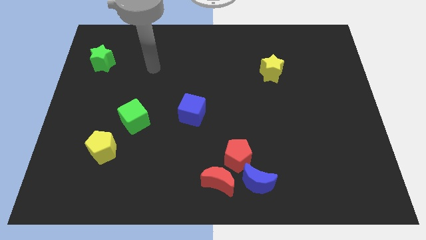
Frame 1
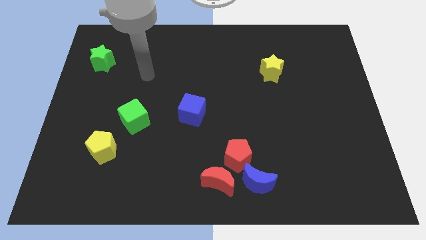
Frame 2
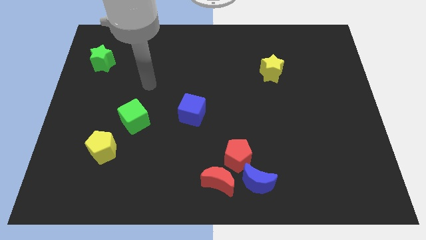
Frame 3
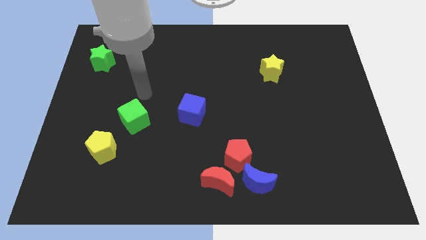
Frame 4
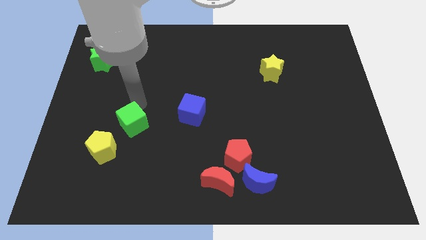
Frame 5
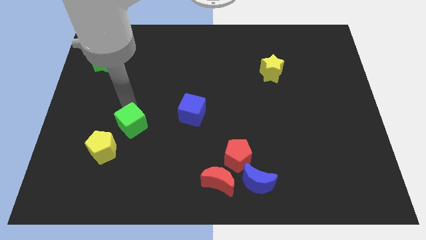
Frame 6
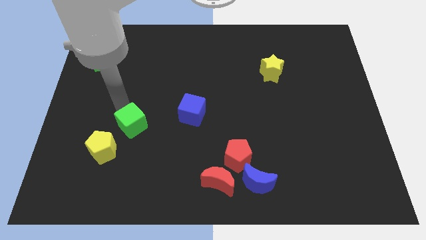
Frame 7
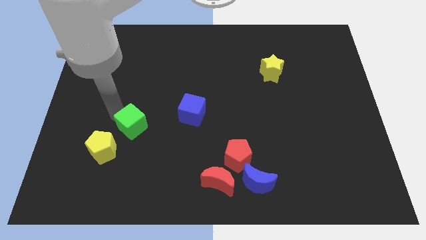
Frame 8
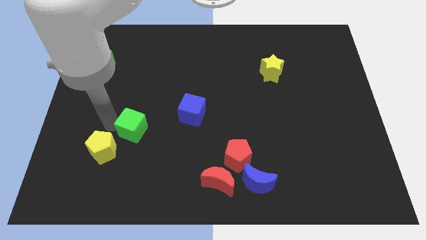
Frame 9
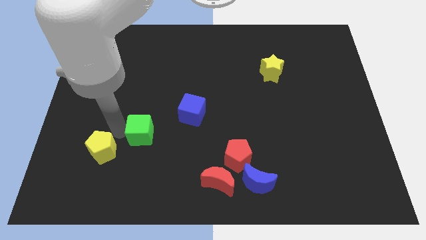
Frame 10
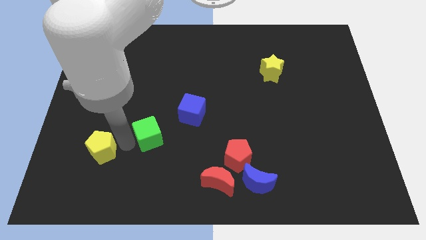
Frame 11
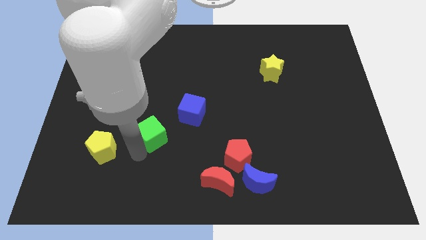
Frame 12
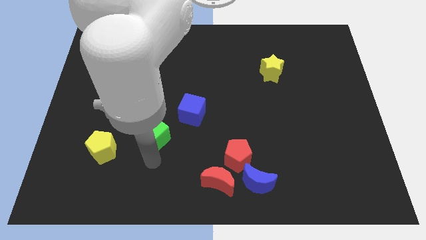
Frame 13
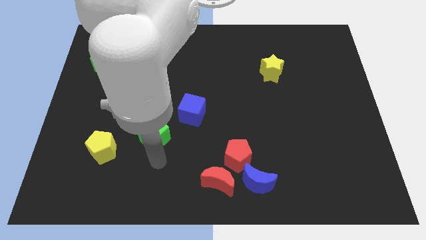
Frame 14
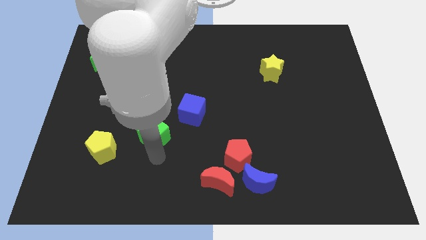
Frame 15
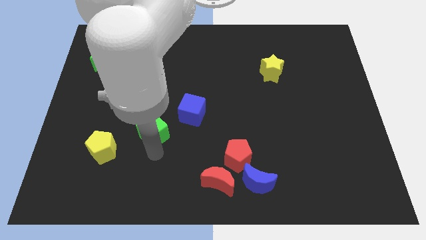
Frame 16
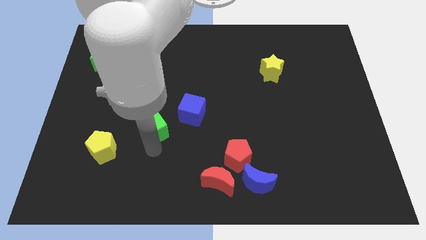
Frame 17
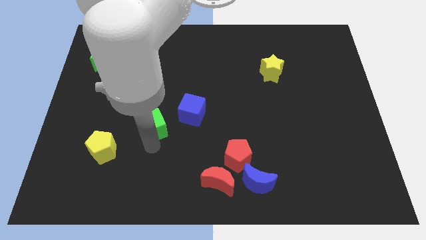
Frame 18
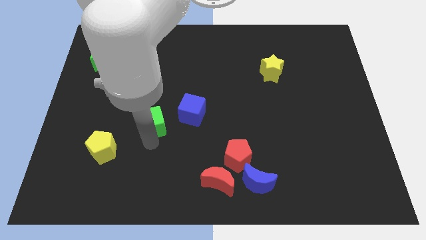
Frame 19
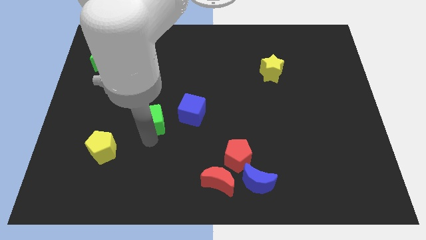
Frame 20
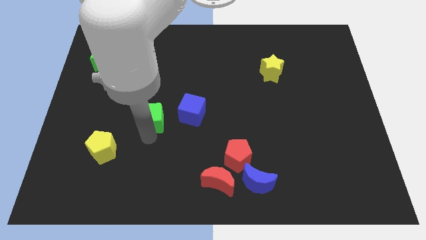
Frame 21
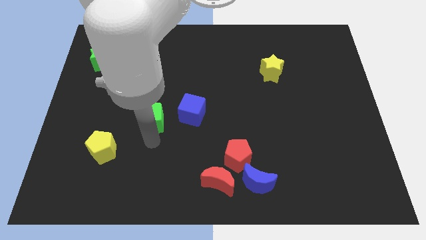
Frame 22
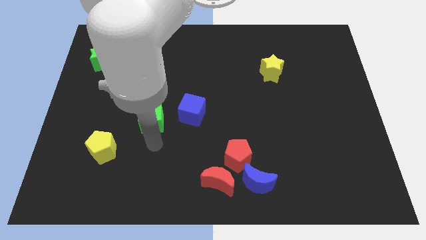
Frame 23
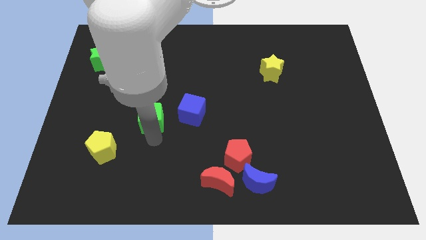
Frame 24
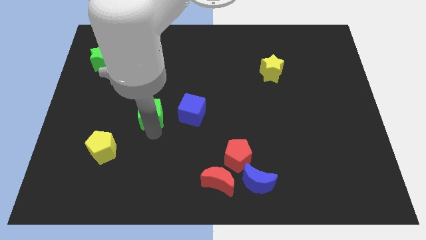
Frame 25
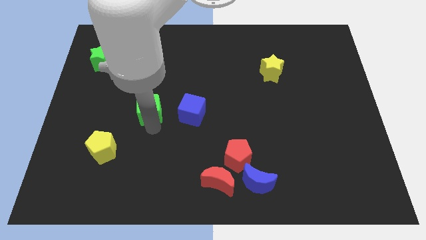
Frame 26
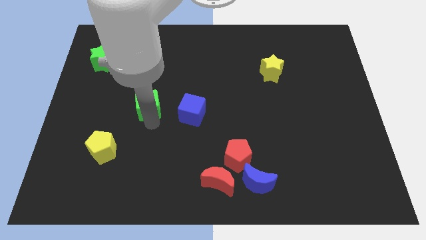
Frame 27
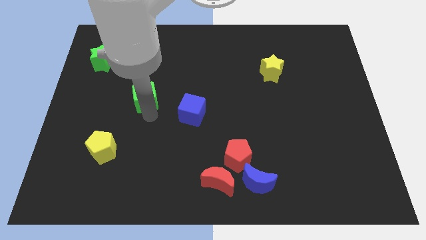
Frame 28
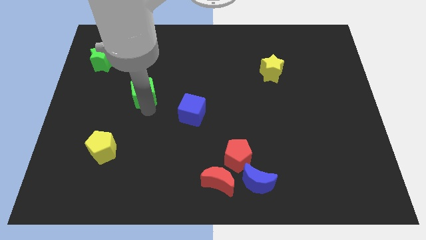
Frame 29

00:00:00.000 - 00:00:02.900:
move the green cube slightly up

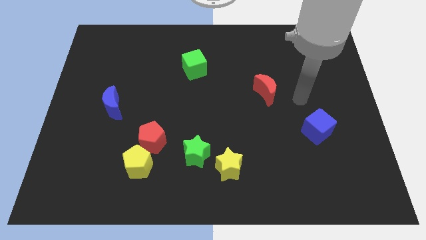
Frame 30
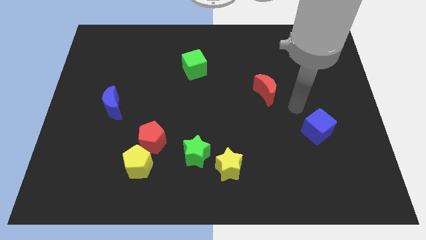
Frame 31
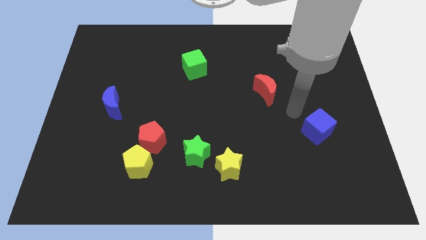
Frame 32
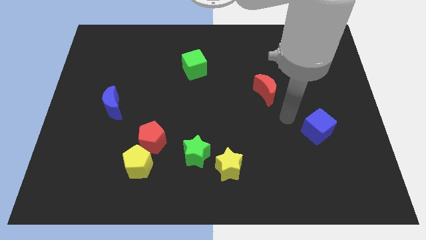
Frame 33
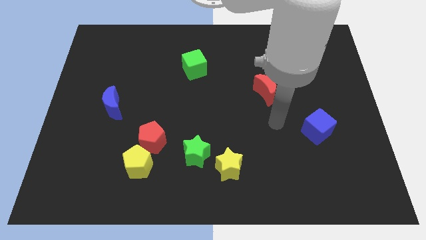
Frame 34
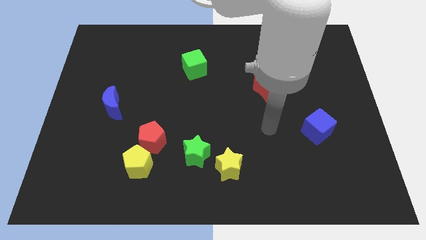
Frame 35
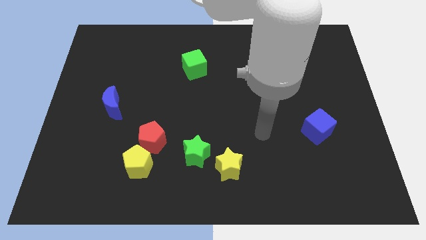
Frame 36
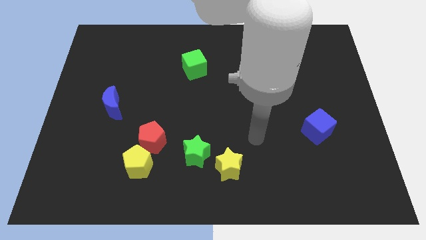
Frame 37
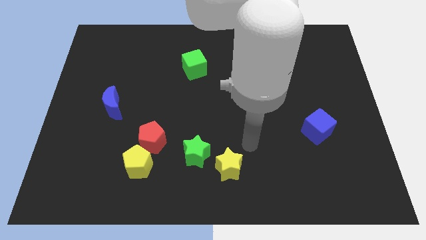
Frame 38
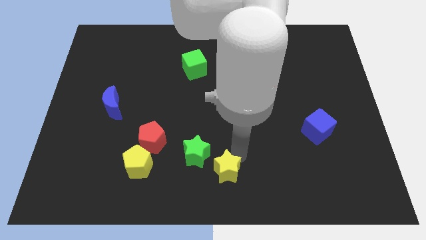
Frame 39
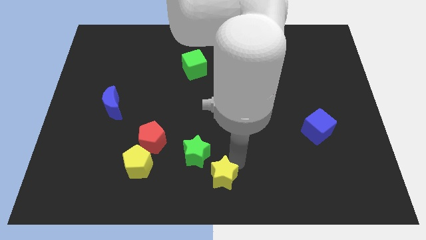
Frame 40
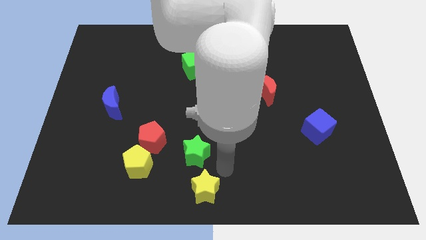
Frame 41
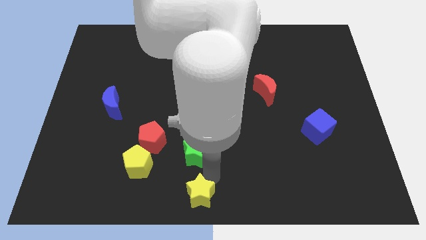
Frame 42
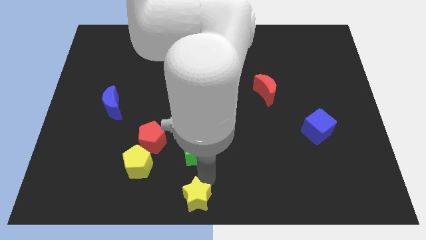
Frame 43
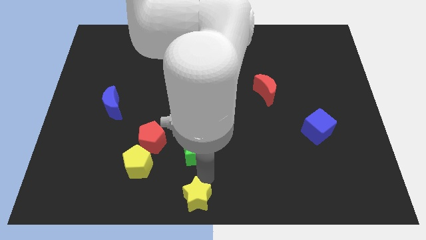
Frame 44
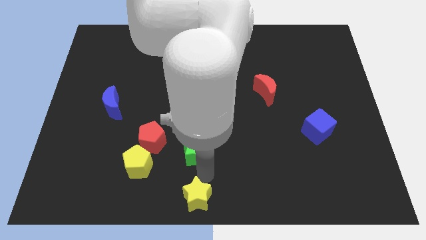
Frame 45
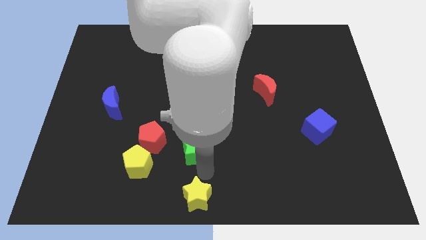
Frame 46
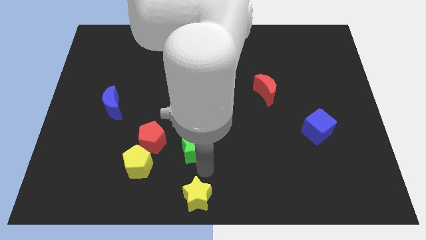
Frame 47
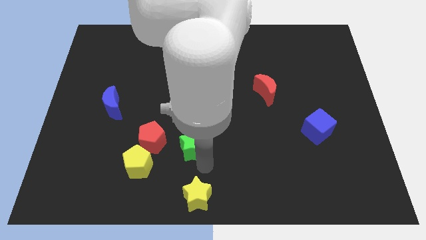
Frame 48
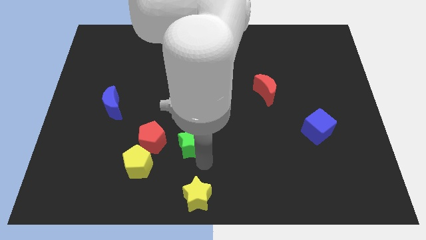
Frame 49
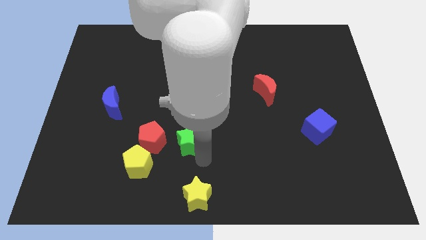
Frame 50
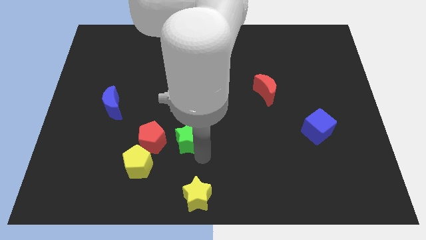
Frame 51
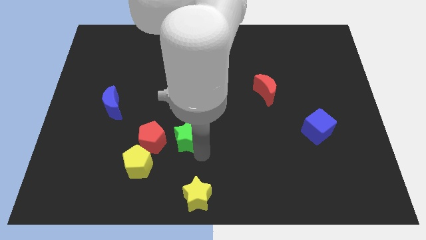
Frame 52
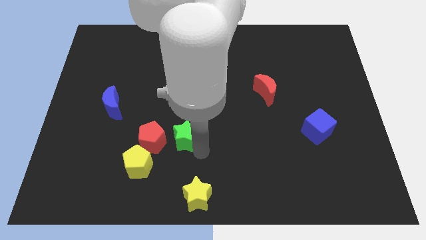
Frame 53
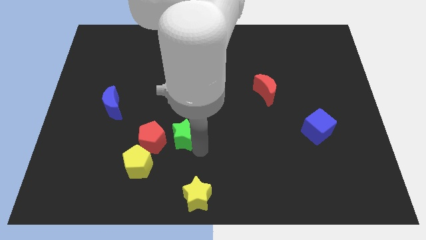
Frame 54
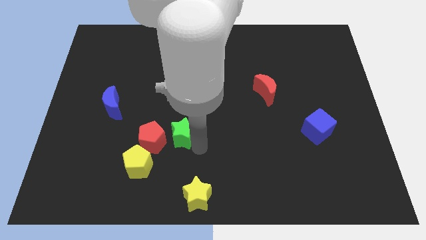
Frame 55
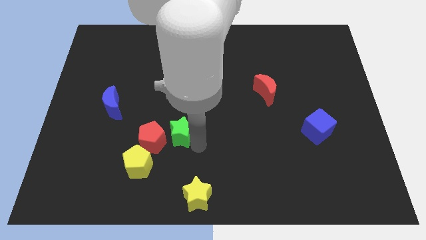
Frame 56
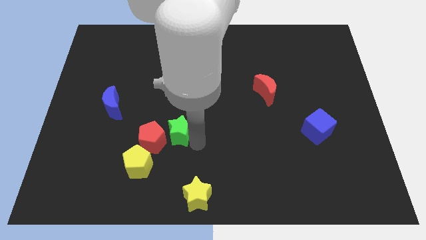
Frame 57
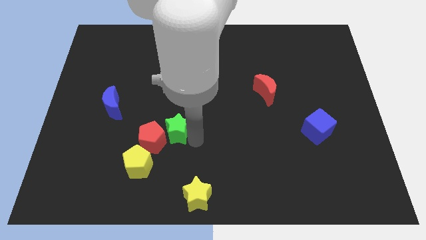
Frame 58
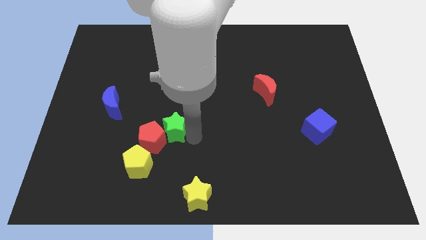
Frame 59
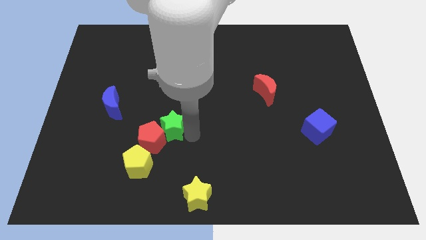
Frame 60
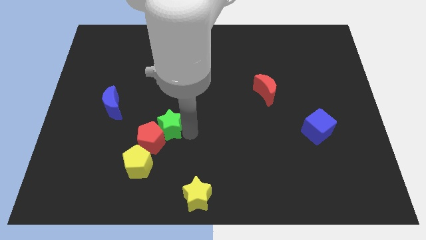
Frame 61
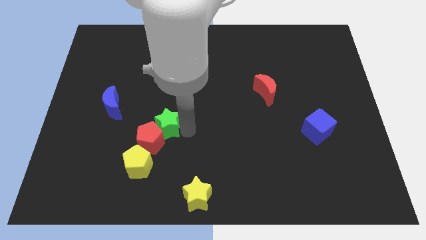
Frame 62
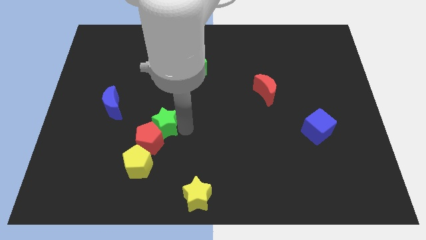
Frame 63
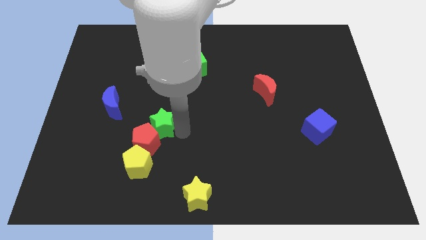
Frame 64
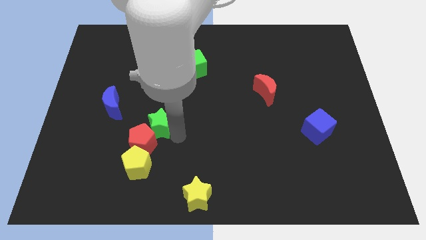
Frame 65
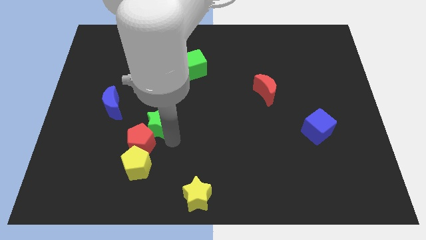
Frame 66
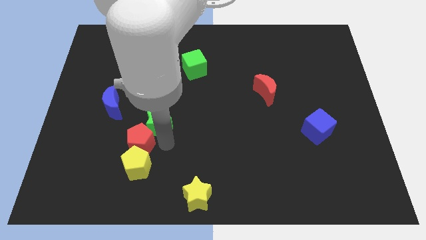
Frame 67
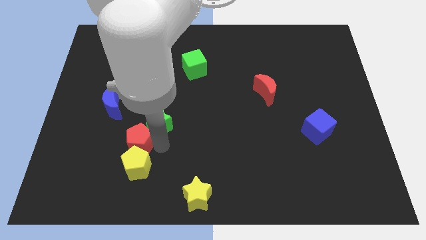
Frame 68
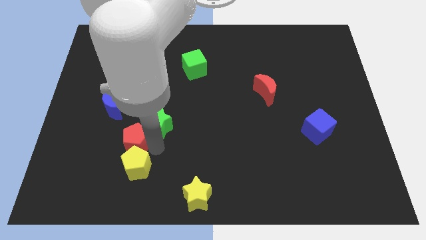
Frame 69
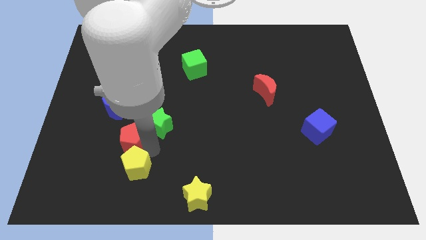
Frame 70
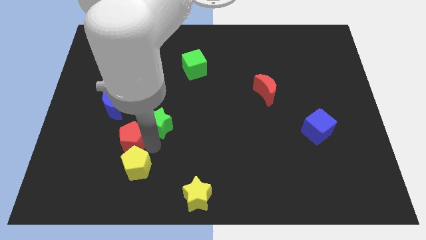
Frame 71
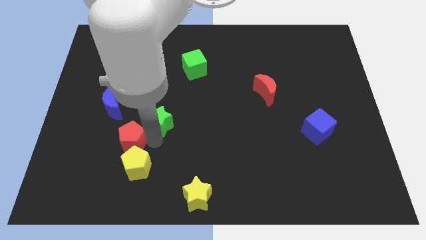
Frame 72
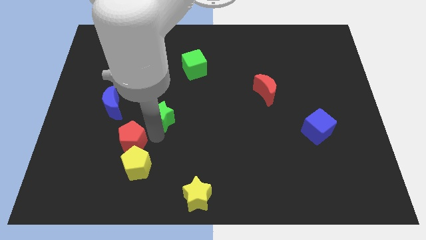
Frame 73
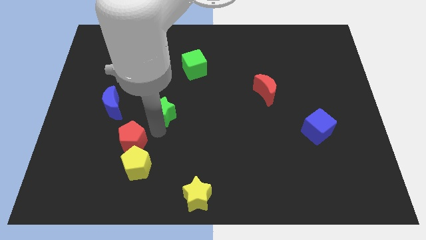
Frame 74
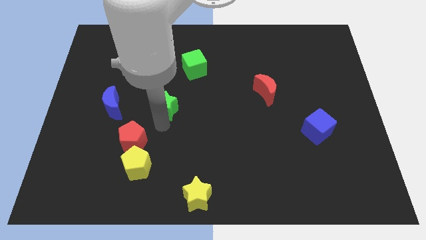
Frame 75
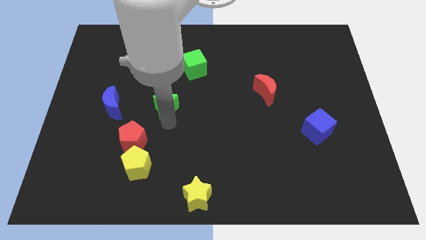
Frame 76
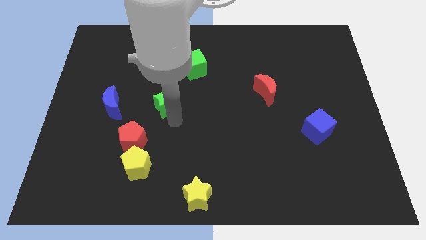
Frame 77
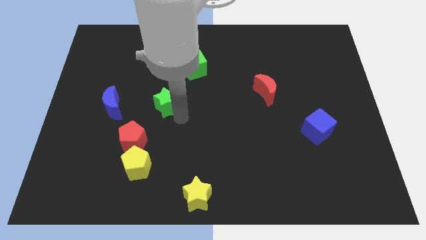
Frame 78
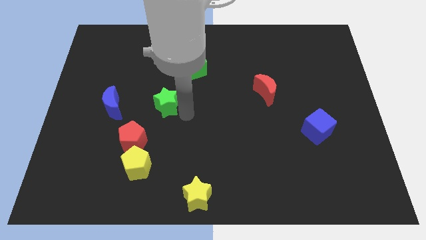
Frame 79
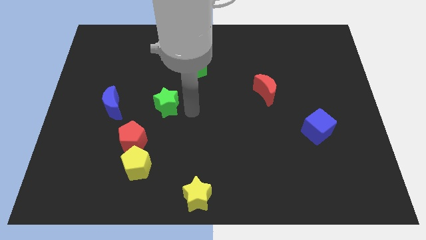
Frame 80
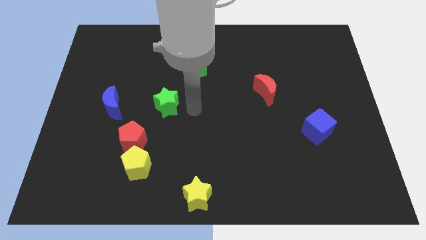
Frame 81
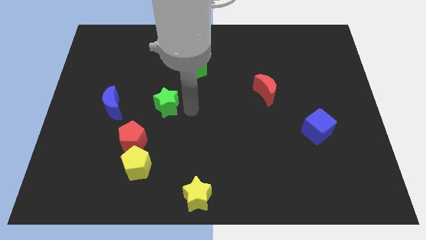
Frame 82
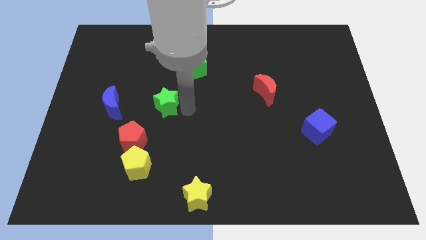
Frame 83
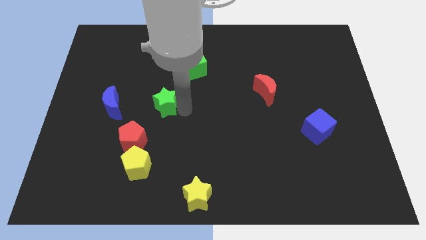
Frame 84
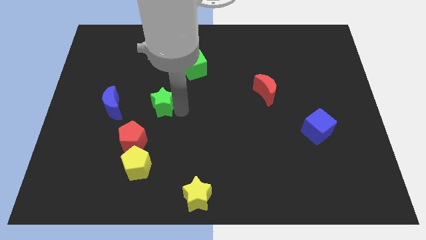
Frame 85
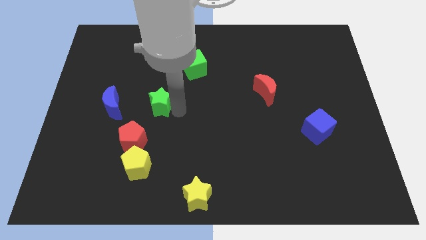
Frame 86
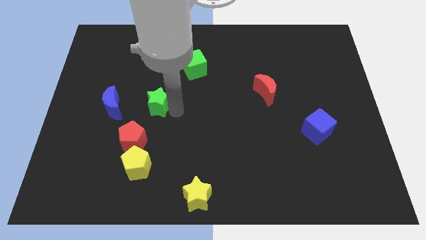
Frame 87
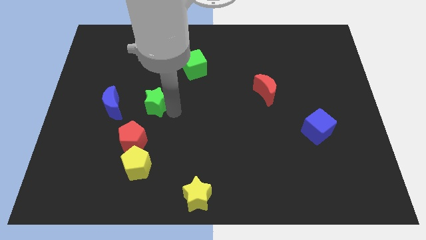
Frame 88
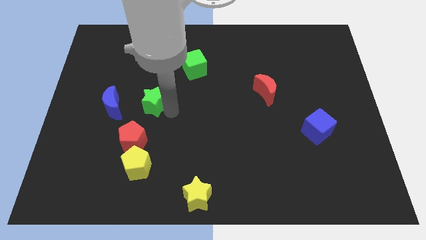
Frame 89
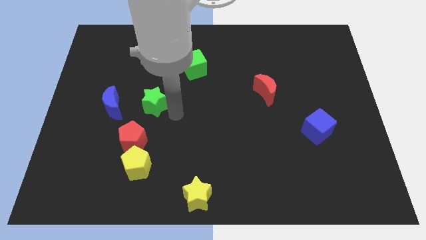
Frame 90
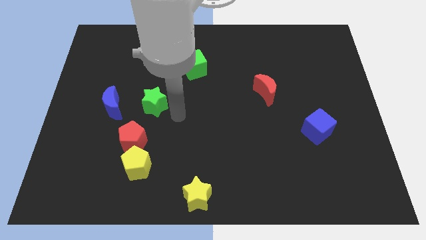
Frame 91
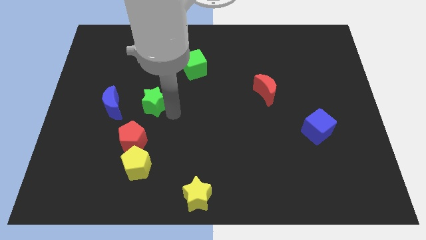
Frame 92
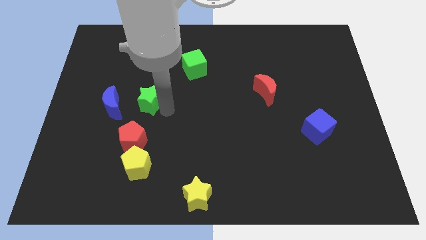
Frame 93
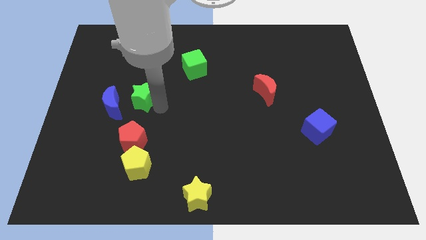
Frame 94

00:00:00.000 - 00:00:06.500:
push the green star up and left
